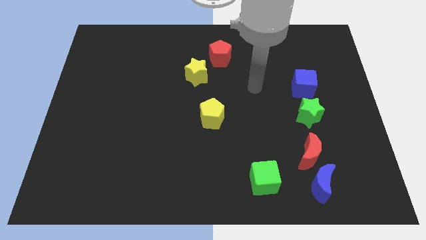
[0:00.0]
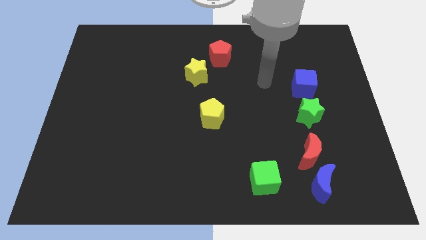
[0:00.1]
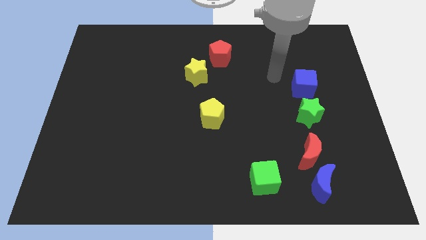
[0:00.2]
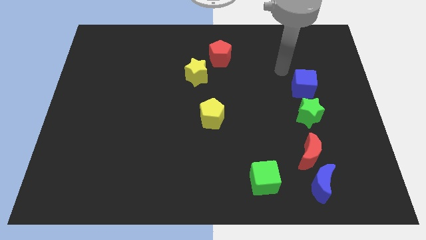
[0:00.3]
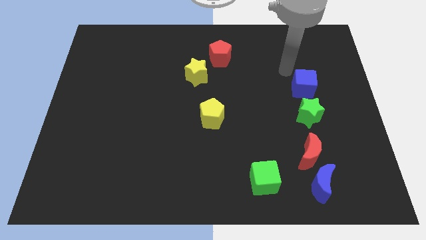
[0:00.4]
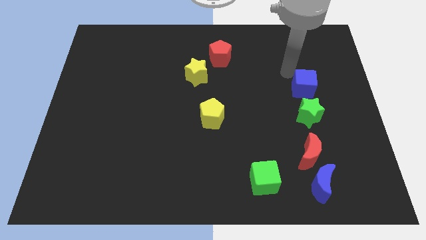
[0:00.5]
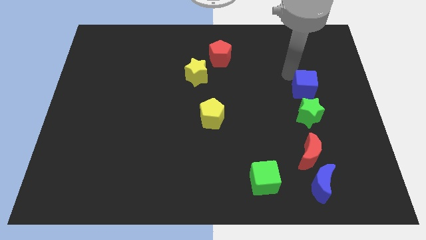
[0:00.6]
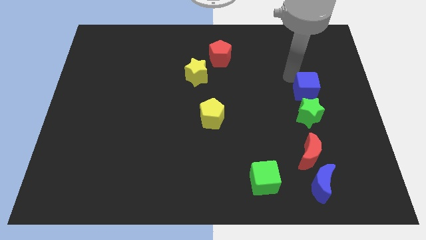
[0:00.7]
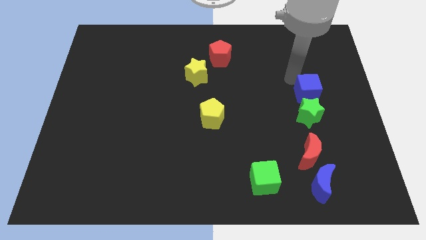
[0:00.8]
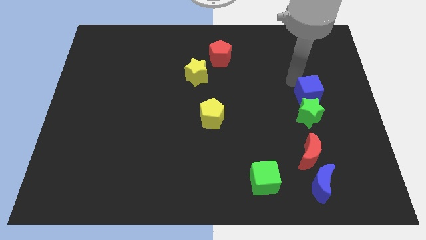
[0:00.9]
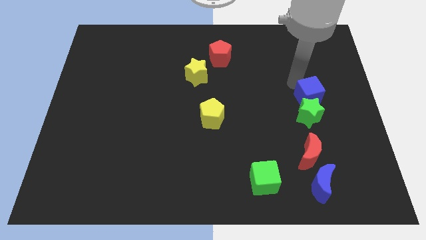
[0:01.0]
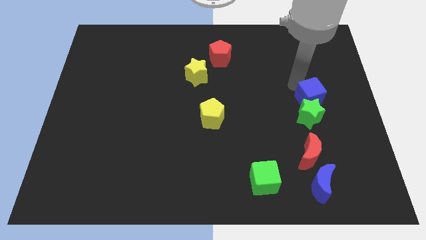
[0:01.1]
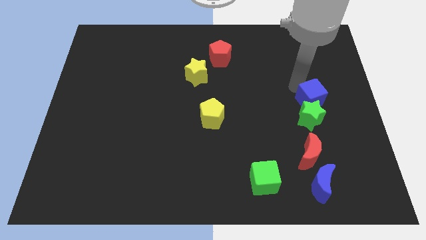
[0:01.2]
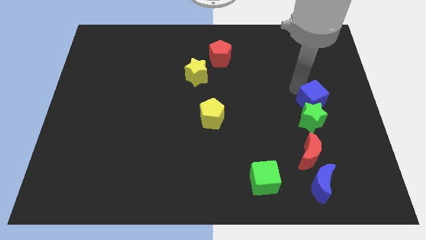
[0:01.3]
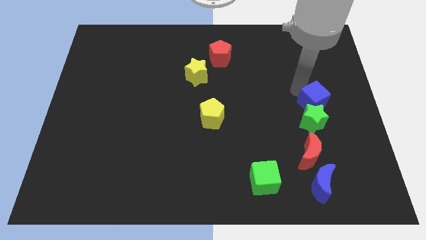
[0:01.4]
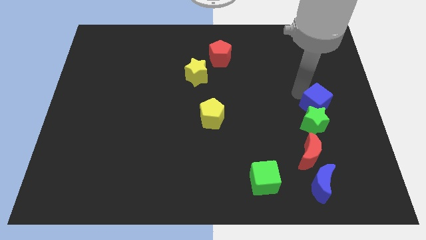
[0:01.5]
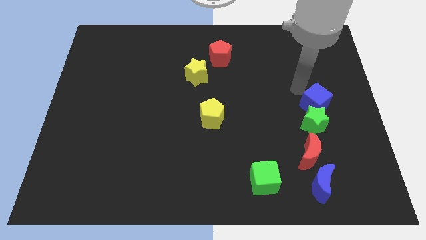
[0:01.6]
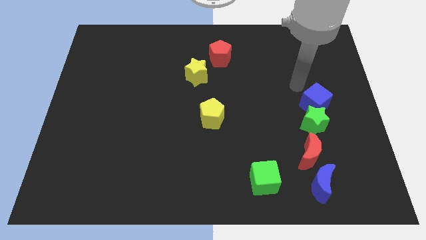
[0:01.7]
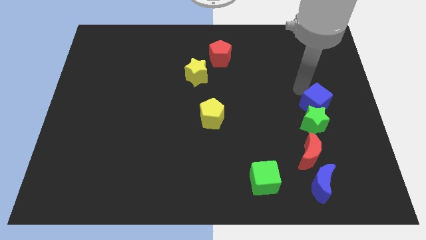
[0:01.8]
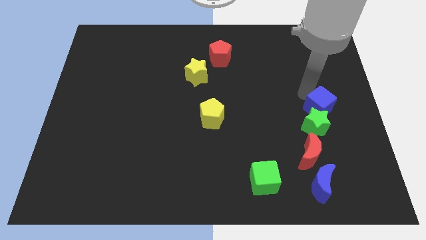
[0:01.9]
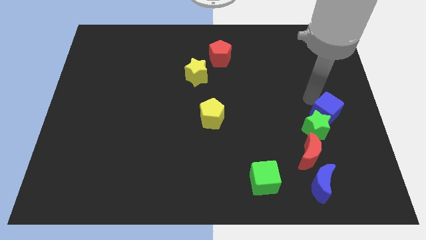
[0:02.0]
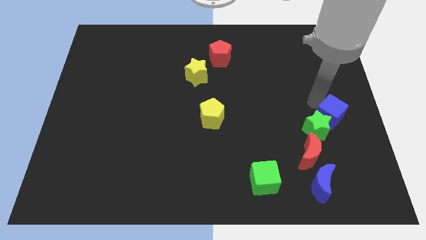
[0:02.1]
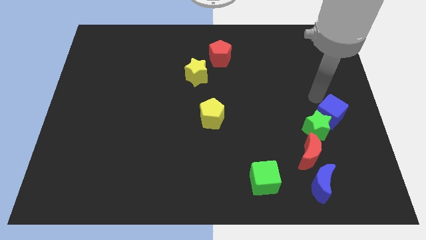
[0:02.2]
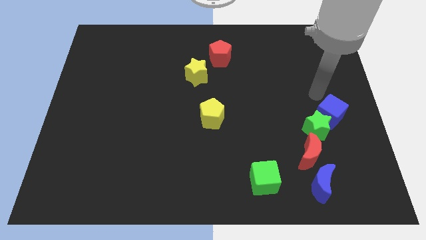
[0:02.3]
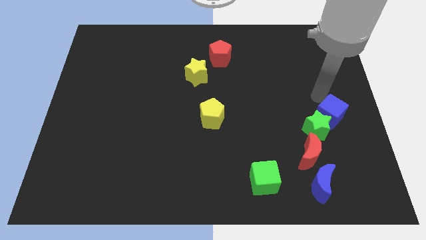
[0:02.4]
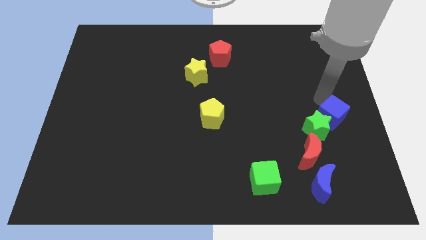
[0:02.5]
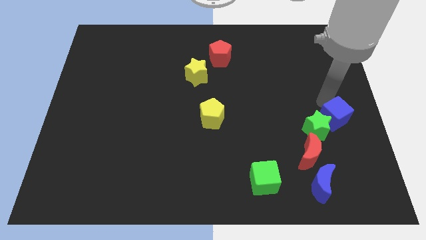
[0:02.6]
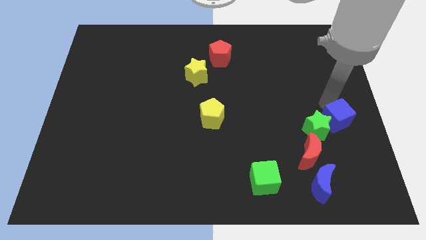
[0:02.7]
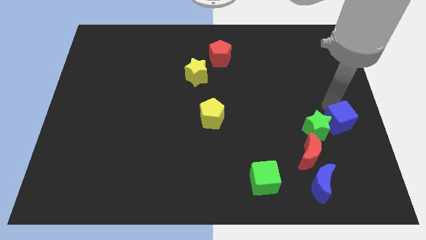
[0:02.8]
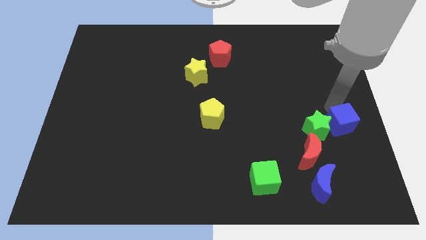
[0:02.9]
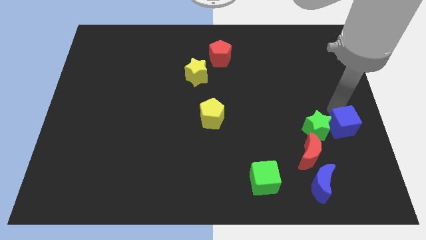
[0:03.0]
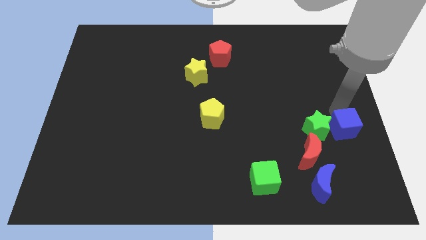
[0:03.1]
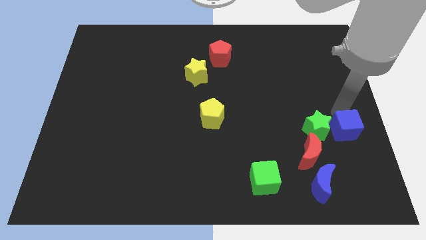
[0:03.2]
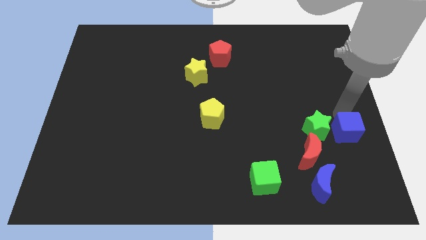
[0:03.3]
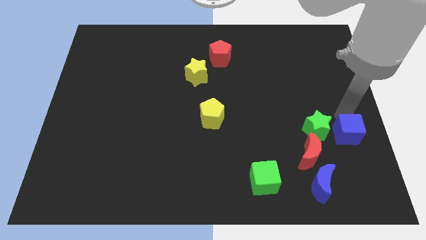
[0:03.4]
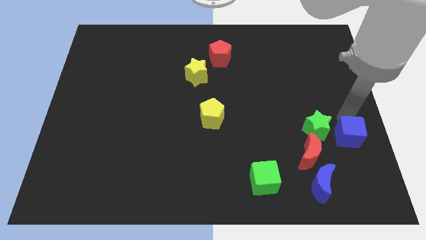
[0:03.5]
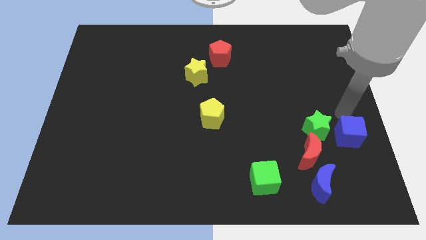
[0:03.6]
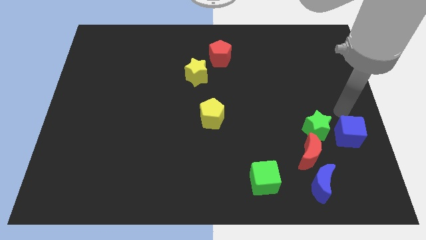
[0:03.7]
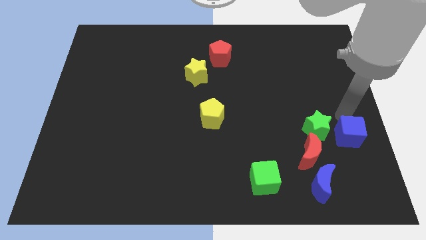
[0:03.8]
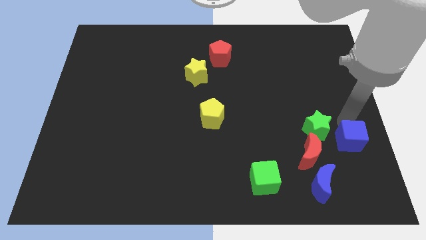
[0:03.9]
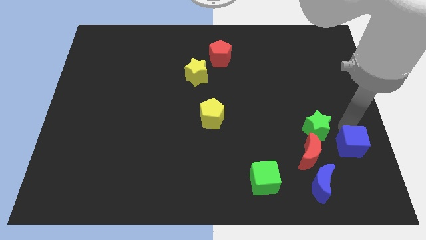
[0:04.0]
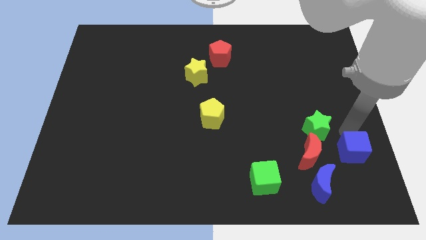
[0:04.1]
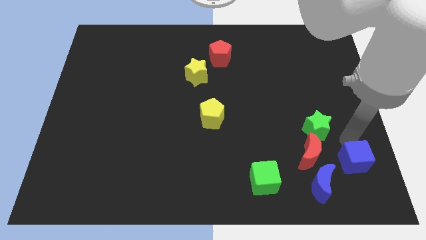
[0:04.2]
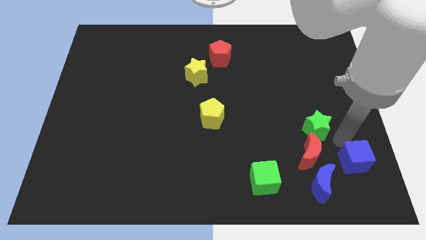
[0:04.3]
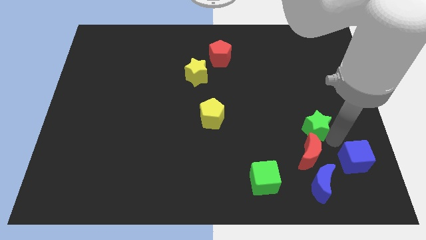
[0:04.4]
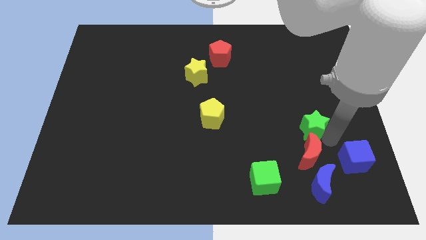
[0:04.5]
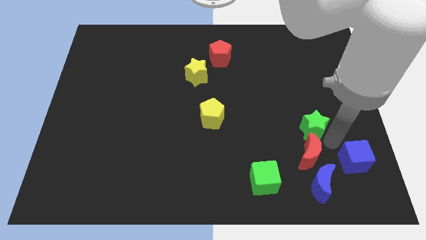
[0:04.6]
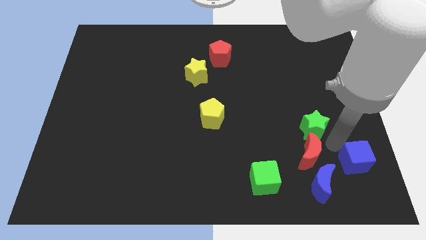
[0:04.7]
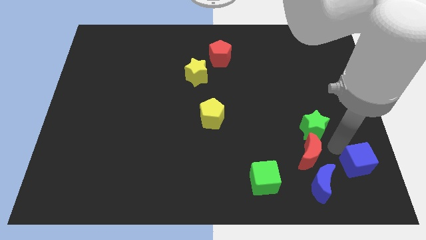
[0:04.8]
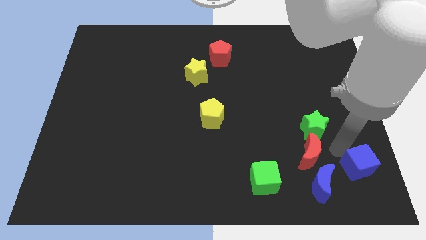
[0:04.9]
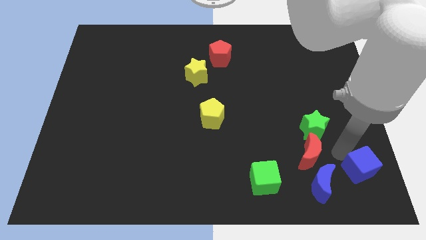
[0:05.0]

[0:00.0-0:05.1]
put the blue cube to the bottom right

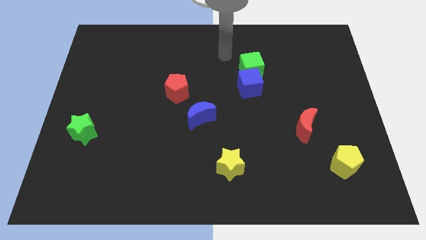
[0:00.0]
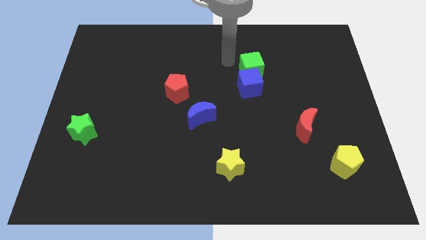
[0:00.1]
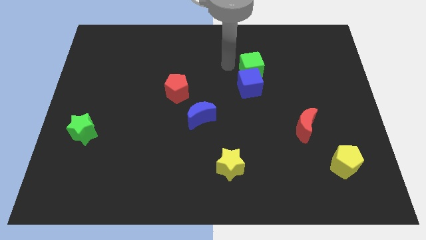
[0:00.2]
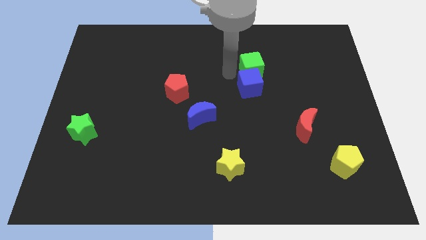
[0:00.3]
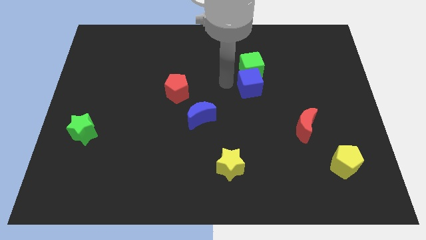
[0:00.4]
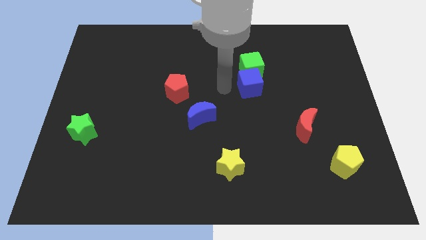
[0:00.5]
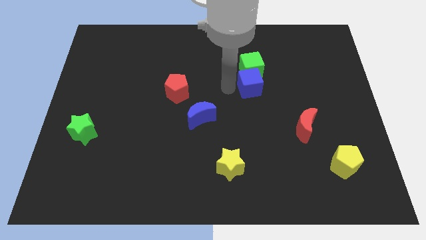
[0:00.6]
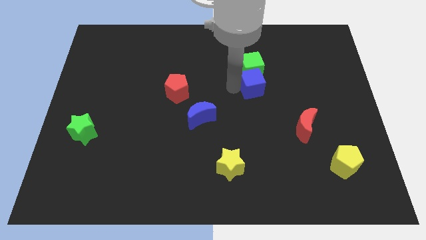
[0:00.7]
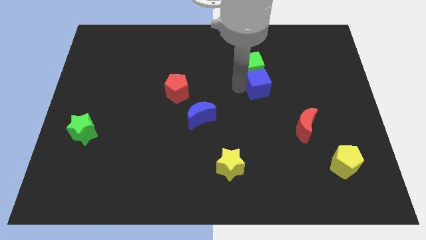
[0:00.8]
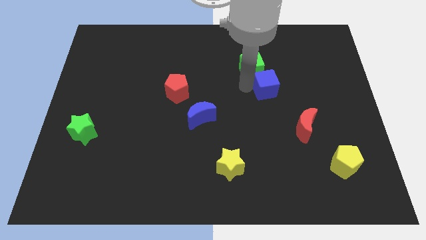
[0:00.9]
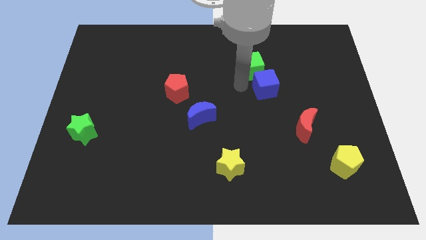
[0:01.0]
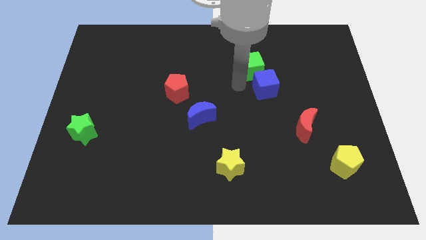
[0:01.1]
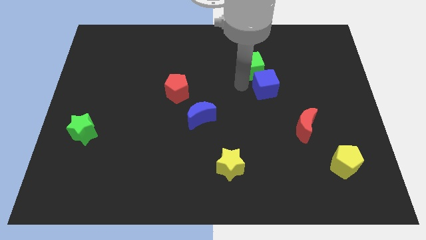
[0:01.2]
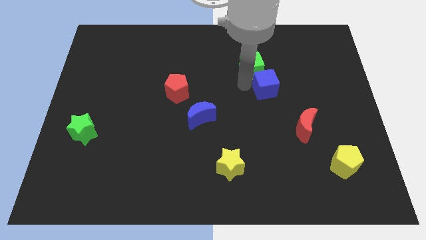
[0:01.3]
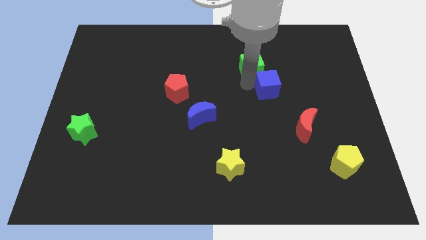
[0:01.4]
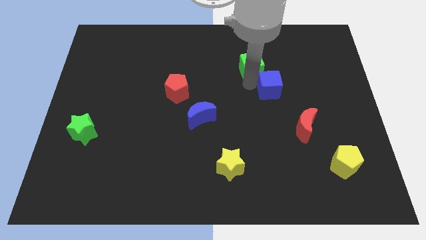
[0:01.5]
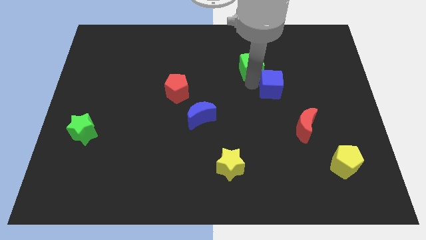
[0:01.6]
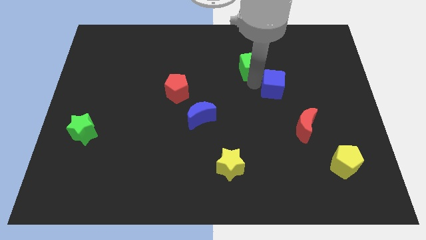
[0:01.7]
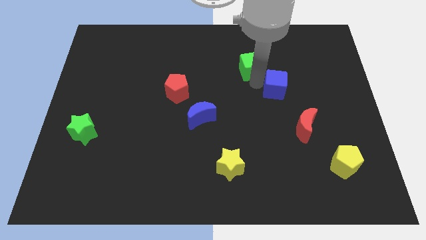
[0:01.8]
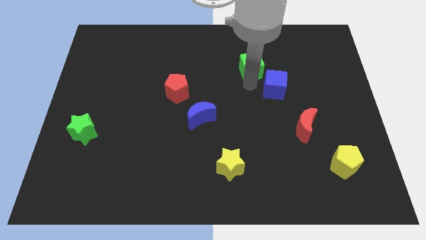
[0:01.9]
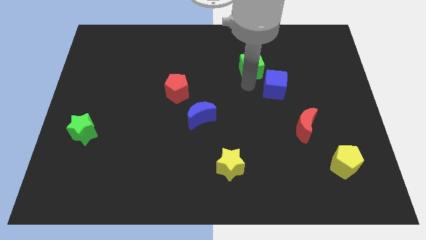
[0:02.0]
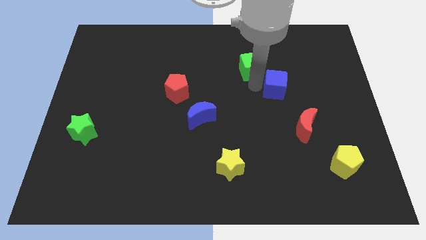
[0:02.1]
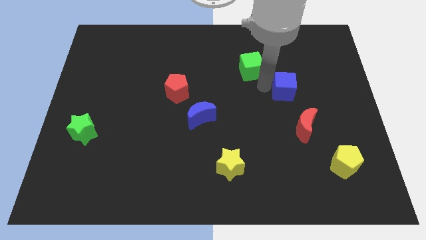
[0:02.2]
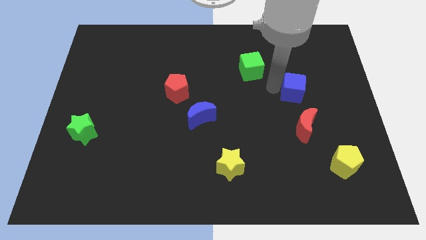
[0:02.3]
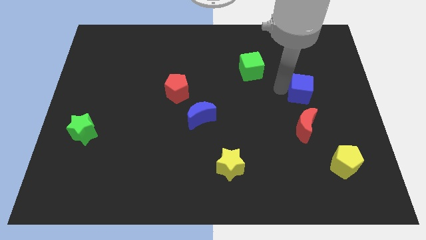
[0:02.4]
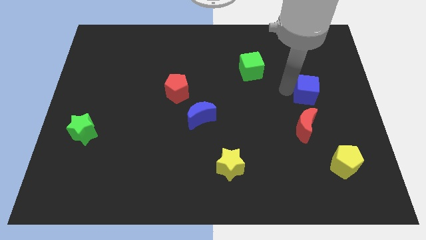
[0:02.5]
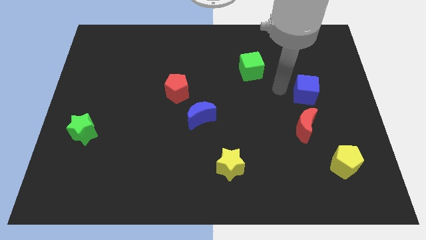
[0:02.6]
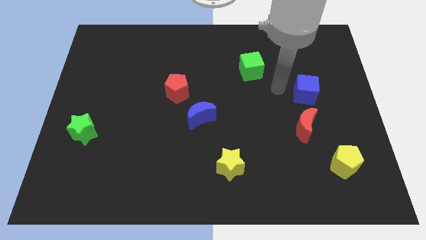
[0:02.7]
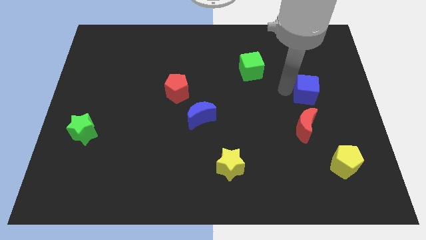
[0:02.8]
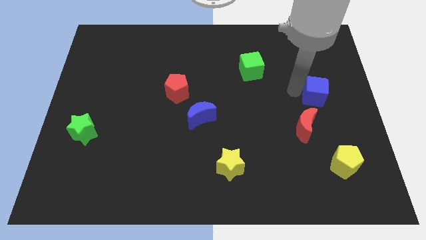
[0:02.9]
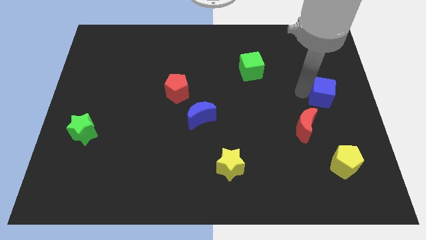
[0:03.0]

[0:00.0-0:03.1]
slide the blue cube to the center right
